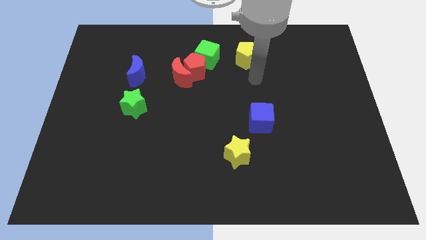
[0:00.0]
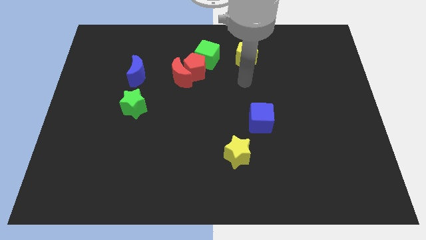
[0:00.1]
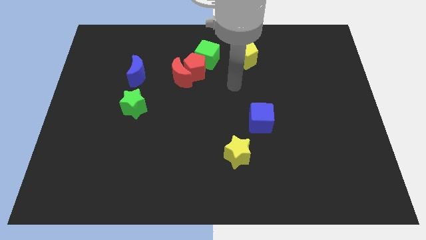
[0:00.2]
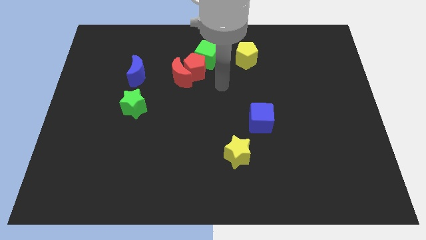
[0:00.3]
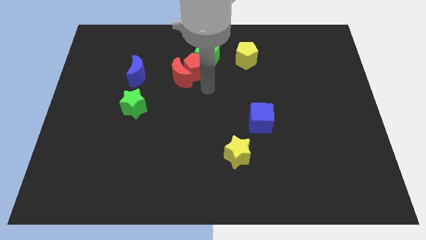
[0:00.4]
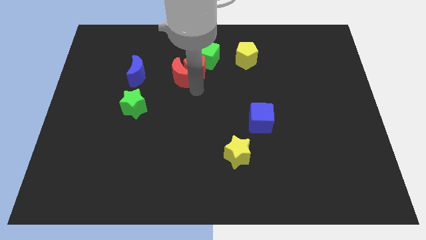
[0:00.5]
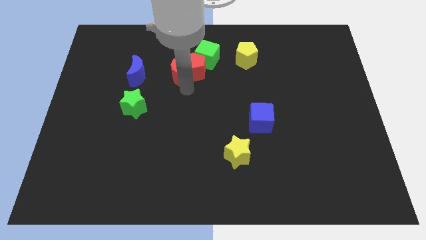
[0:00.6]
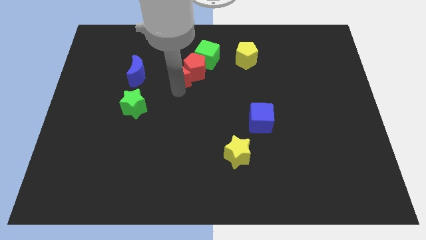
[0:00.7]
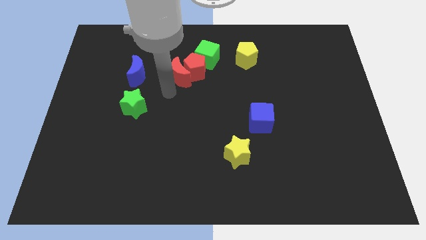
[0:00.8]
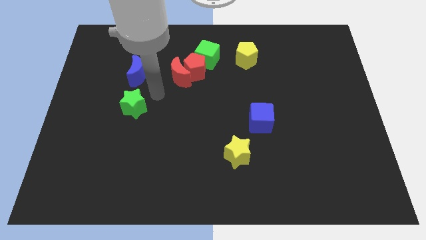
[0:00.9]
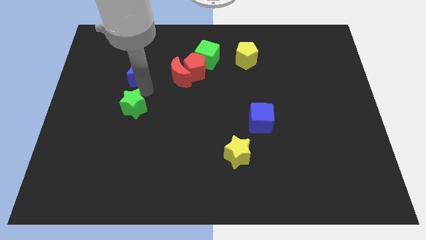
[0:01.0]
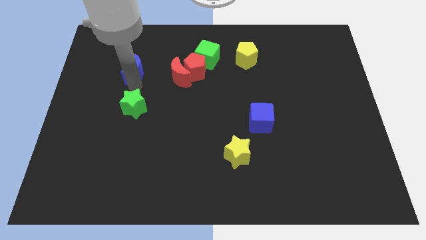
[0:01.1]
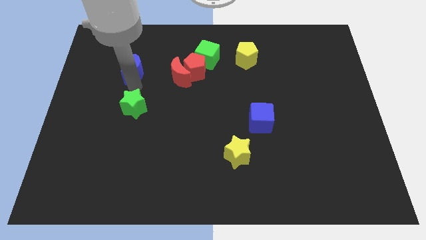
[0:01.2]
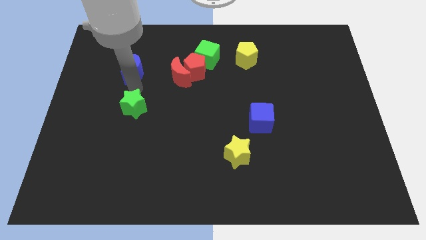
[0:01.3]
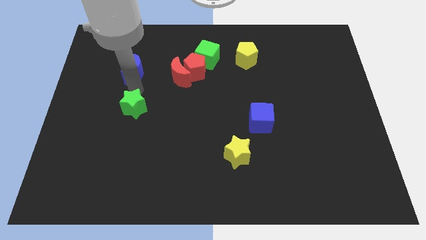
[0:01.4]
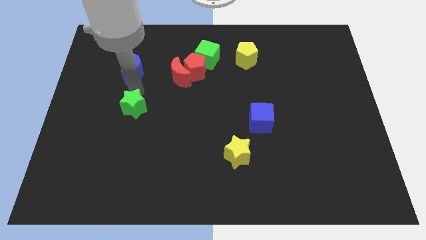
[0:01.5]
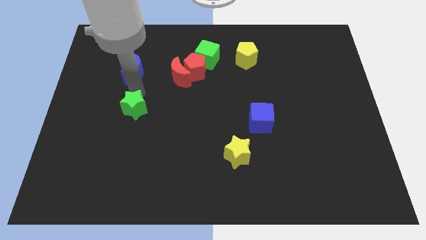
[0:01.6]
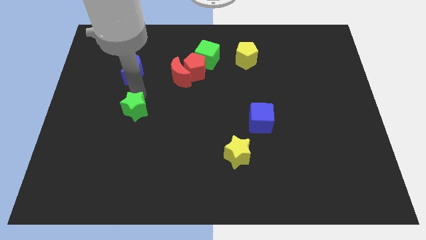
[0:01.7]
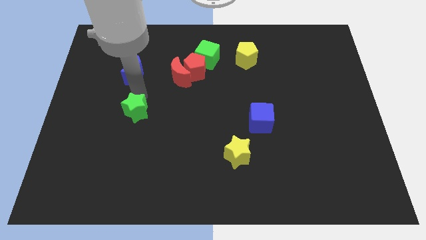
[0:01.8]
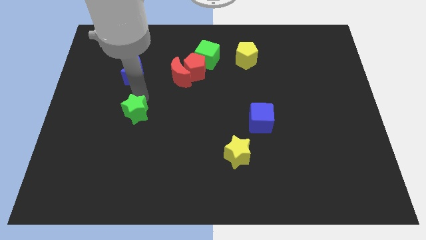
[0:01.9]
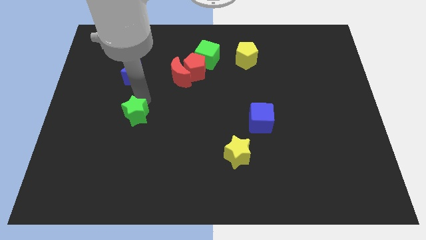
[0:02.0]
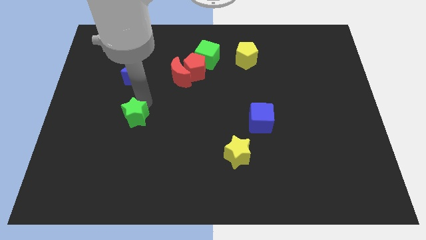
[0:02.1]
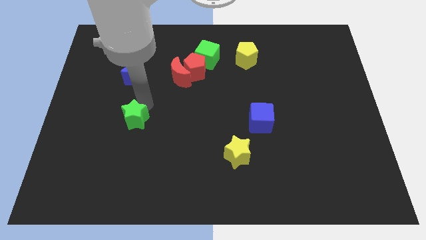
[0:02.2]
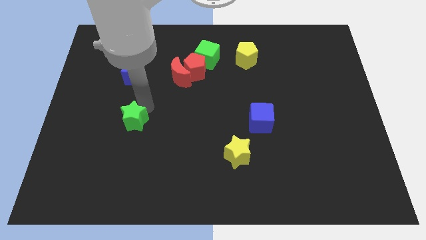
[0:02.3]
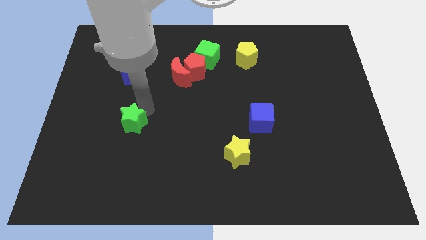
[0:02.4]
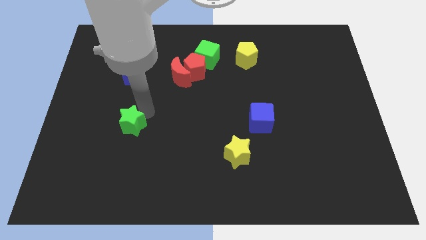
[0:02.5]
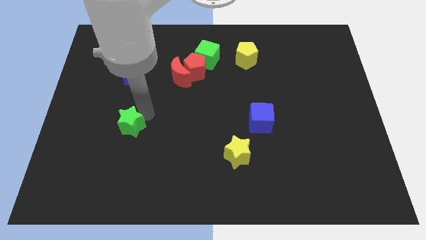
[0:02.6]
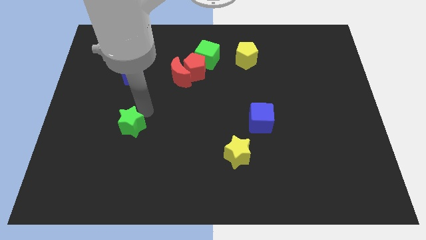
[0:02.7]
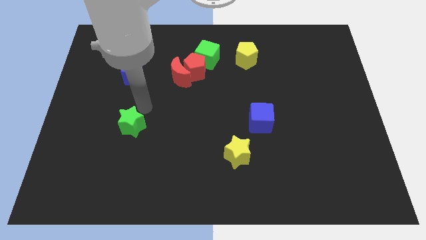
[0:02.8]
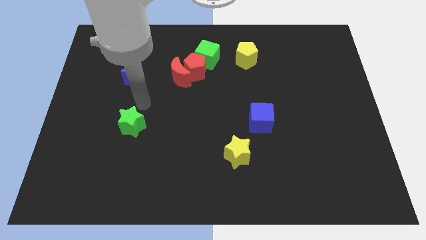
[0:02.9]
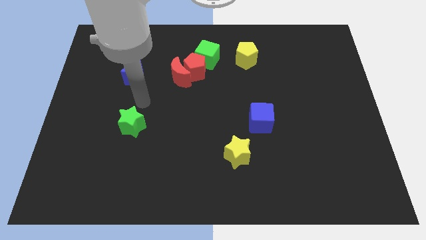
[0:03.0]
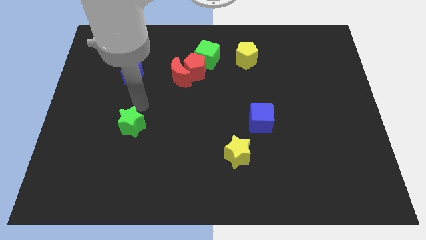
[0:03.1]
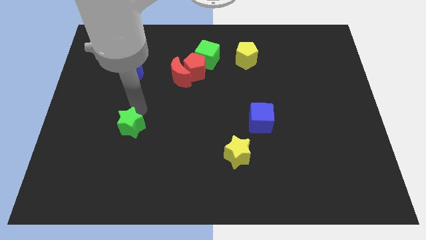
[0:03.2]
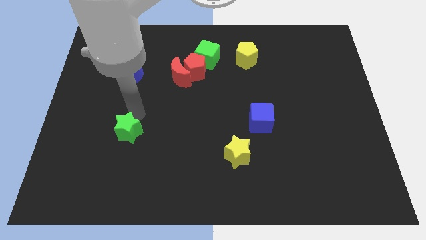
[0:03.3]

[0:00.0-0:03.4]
push the green star down a little bit

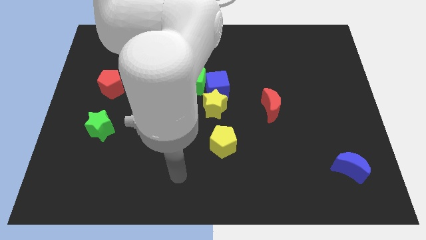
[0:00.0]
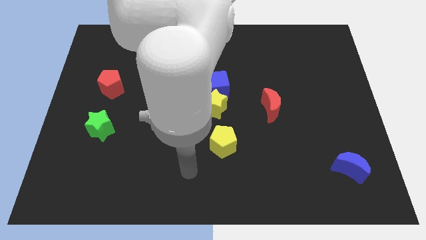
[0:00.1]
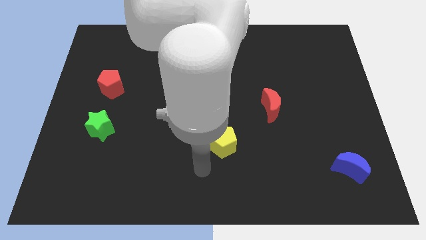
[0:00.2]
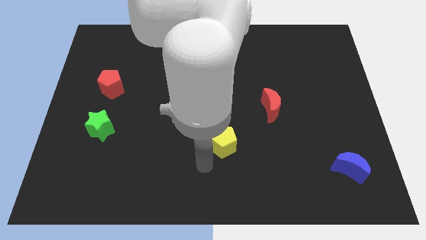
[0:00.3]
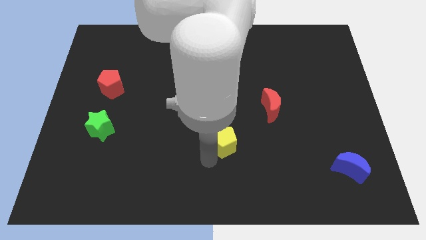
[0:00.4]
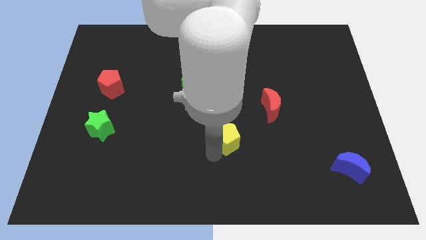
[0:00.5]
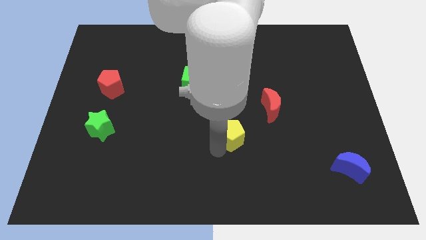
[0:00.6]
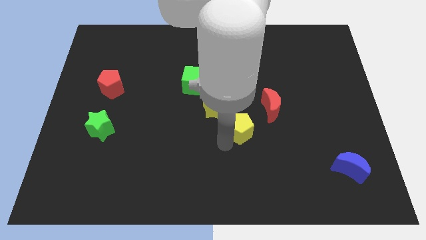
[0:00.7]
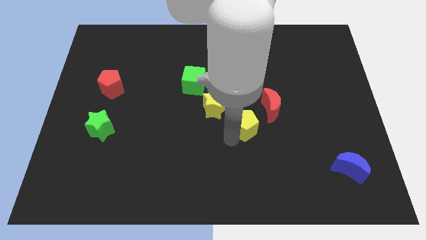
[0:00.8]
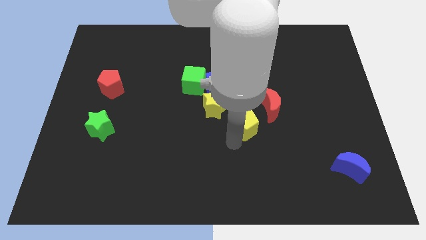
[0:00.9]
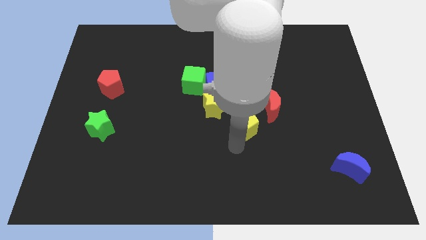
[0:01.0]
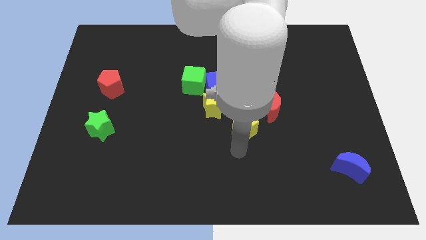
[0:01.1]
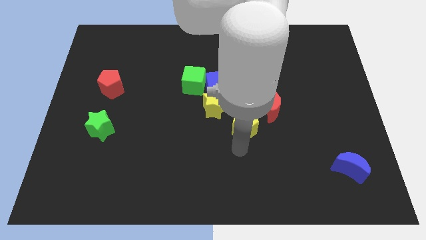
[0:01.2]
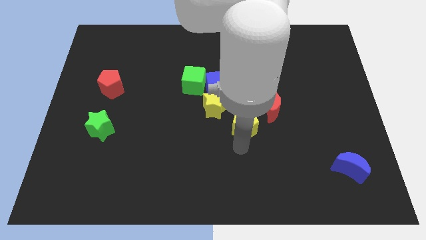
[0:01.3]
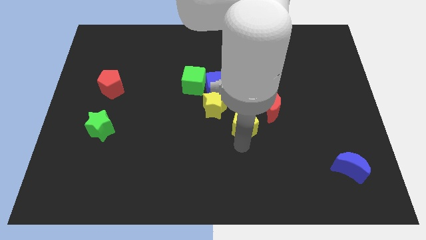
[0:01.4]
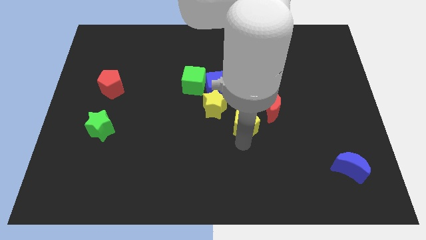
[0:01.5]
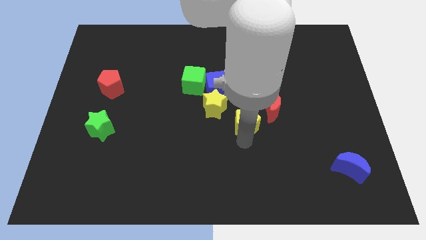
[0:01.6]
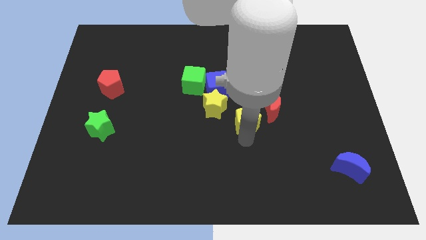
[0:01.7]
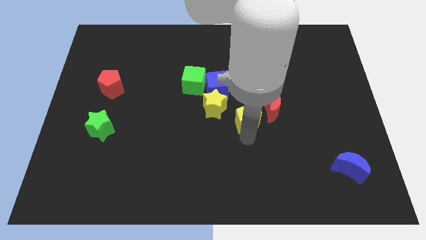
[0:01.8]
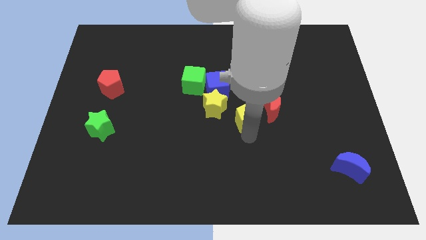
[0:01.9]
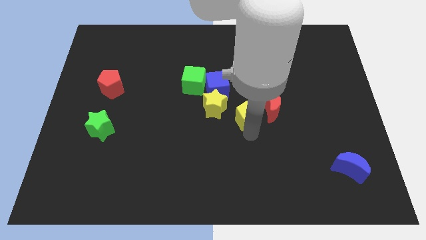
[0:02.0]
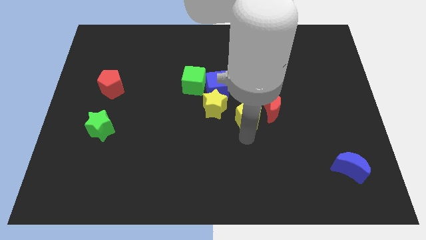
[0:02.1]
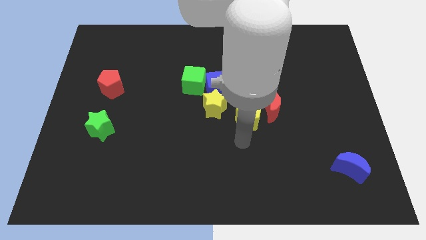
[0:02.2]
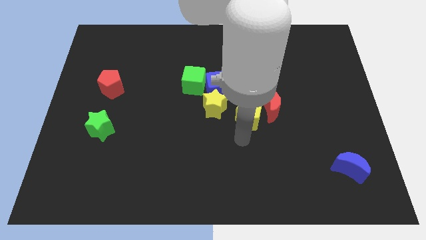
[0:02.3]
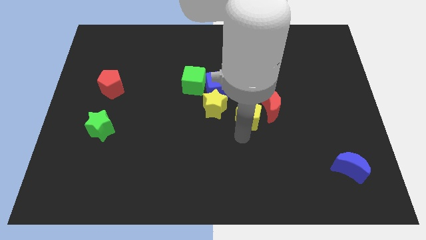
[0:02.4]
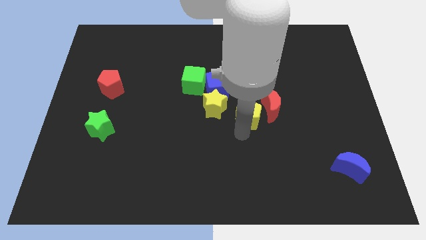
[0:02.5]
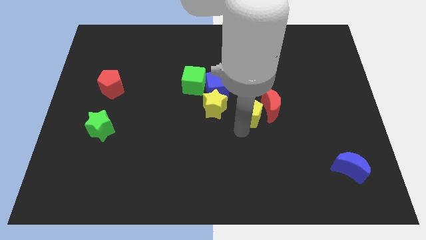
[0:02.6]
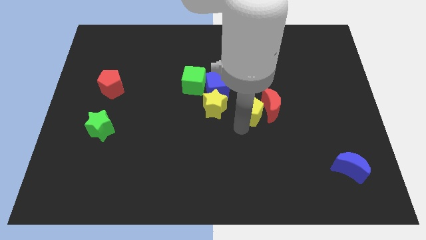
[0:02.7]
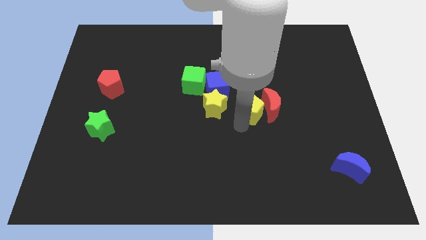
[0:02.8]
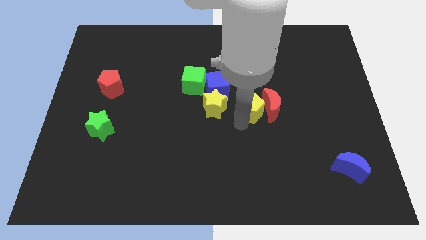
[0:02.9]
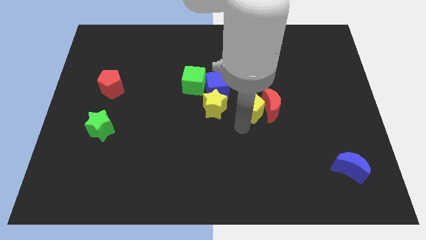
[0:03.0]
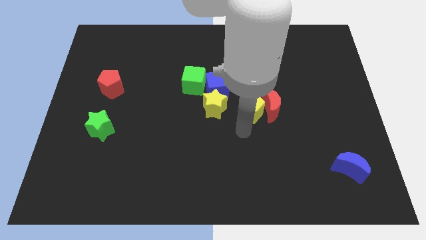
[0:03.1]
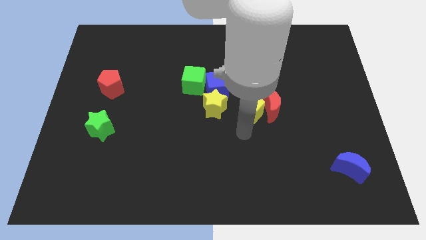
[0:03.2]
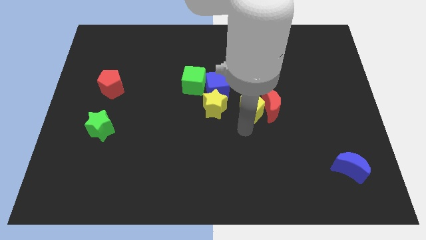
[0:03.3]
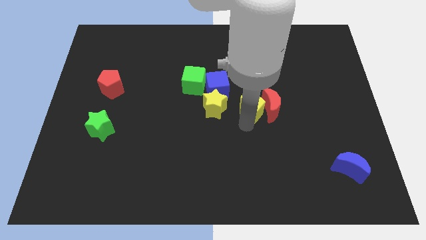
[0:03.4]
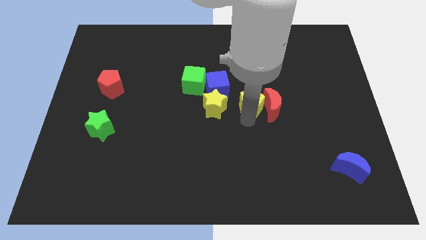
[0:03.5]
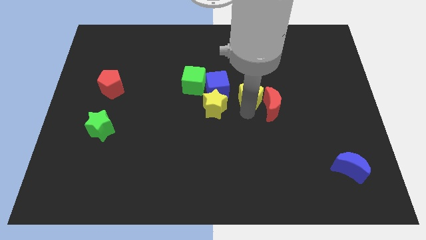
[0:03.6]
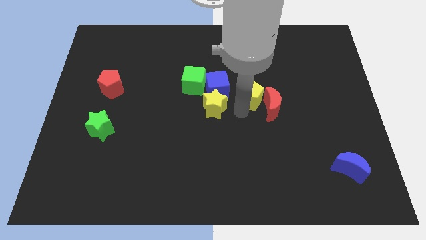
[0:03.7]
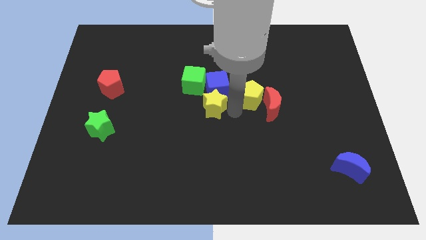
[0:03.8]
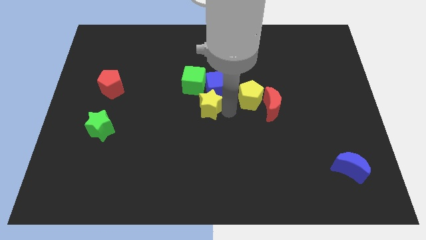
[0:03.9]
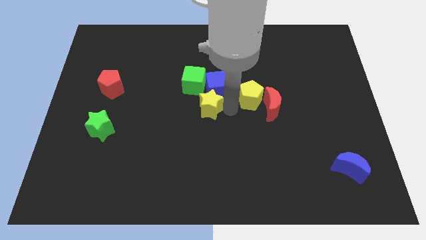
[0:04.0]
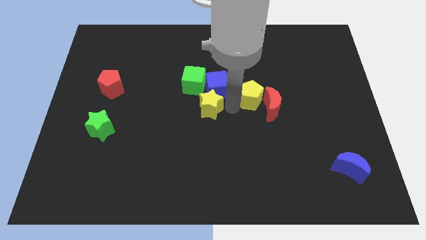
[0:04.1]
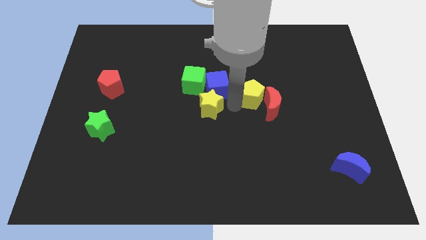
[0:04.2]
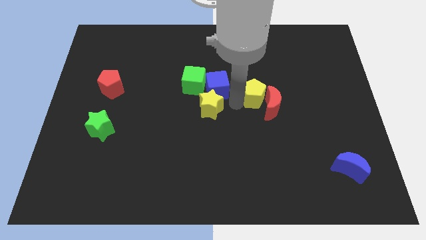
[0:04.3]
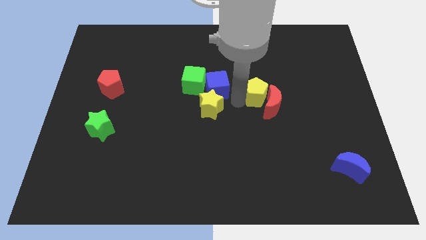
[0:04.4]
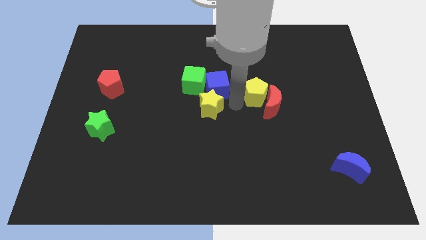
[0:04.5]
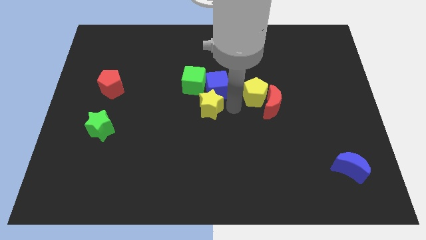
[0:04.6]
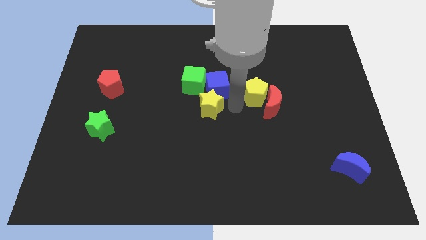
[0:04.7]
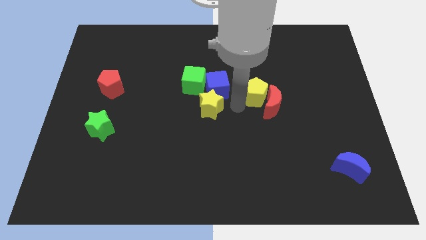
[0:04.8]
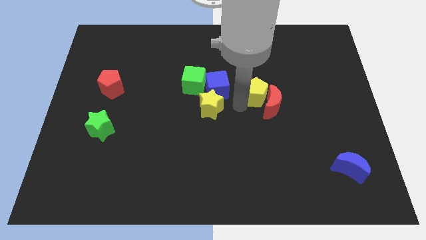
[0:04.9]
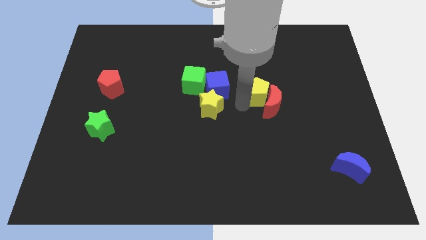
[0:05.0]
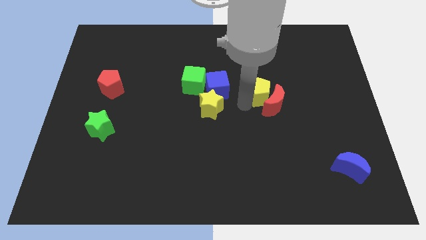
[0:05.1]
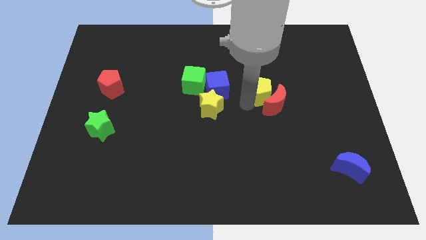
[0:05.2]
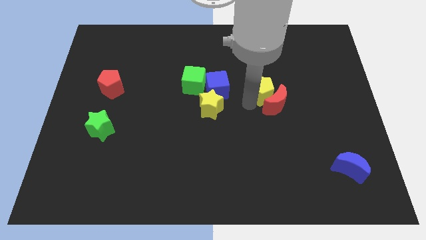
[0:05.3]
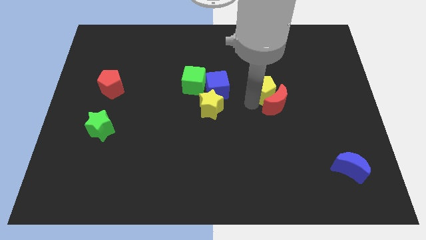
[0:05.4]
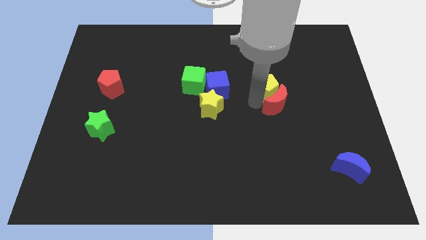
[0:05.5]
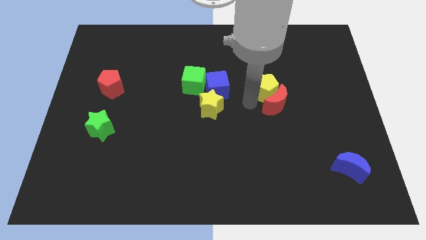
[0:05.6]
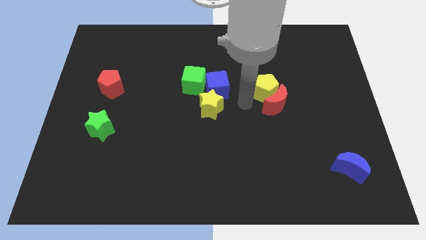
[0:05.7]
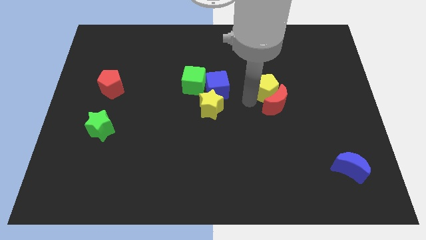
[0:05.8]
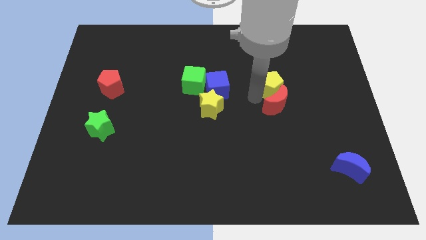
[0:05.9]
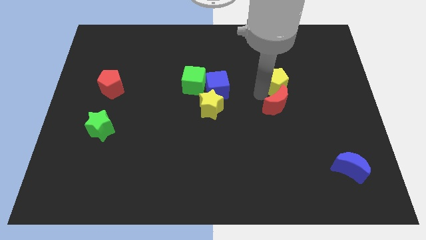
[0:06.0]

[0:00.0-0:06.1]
push the yellow pentagon diagonally up and to the right
